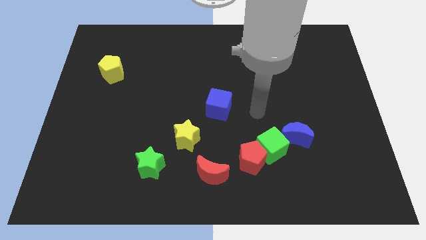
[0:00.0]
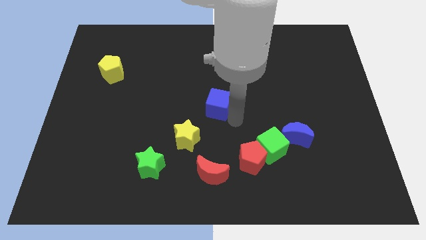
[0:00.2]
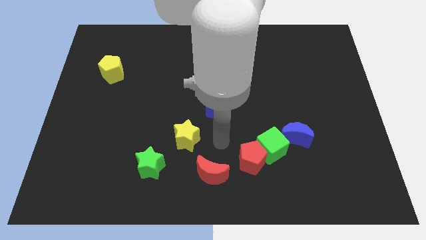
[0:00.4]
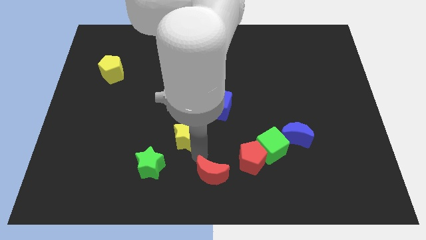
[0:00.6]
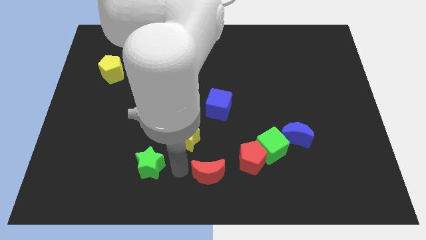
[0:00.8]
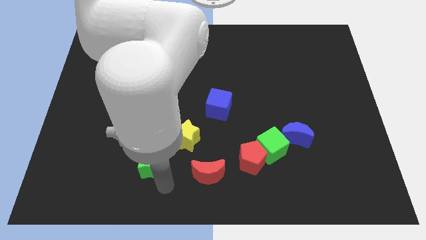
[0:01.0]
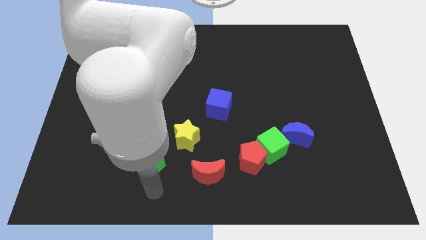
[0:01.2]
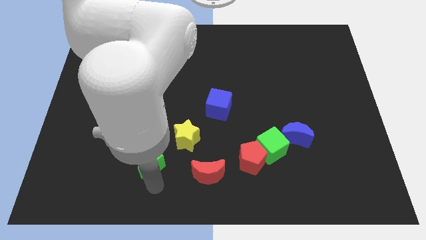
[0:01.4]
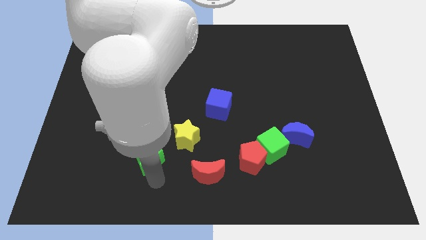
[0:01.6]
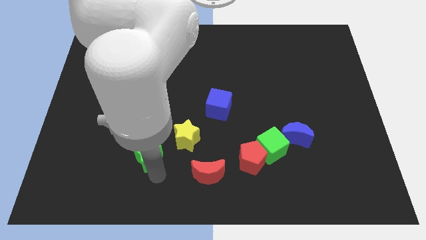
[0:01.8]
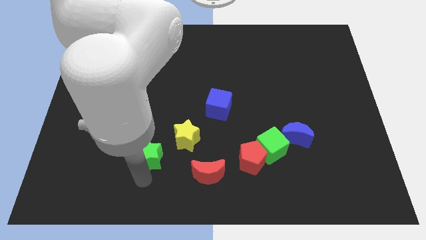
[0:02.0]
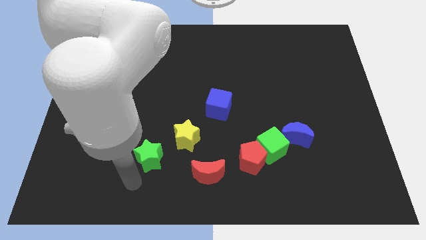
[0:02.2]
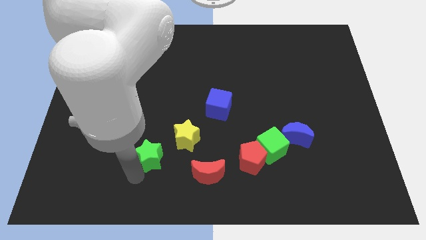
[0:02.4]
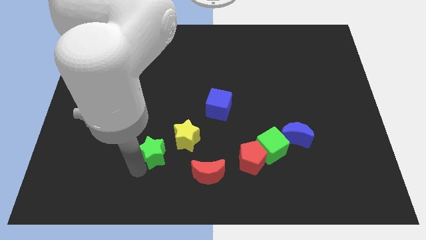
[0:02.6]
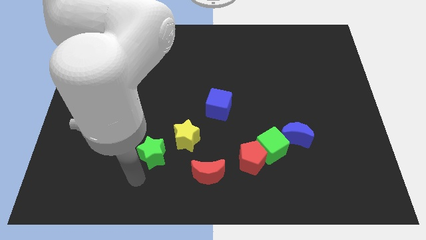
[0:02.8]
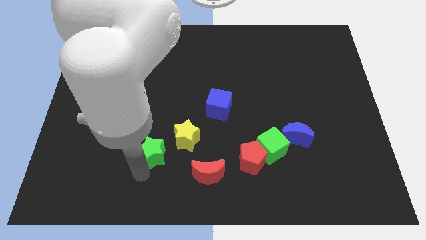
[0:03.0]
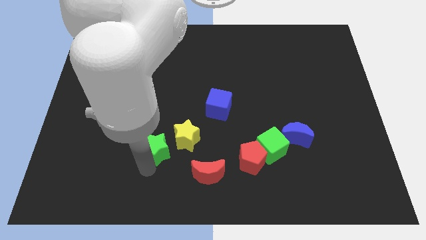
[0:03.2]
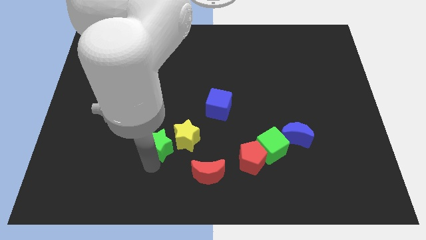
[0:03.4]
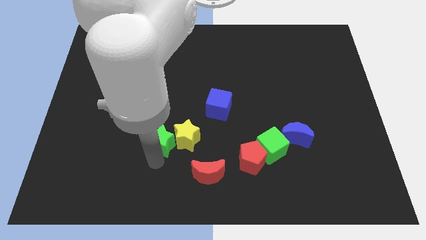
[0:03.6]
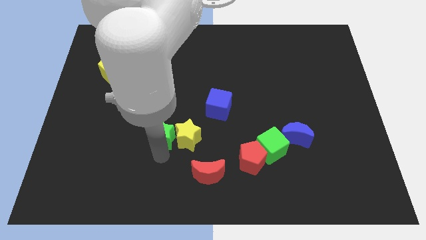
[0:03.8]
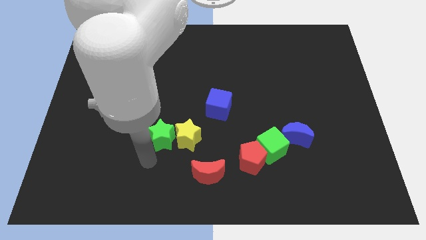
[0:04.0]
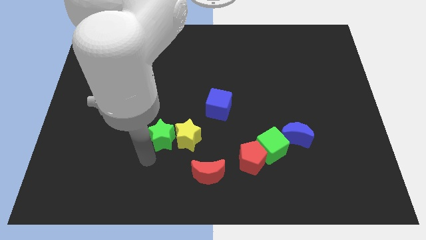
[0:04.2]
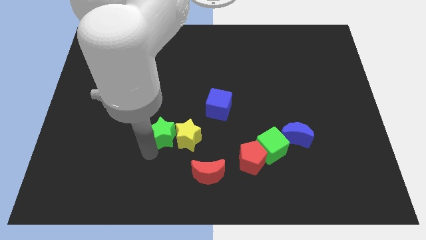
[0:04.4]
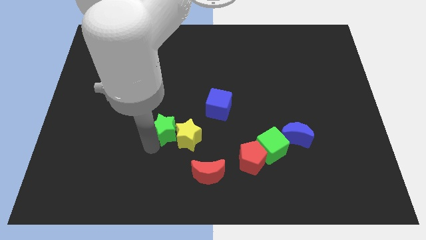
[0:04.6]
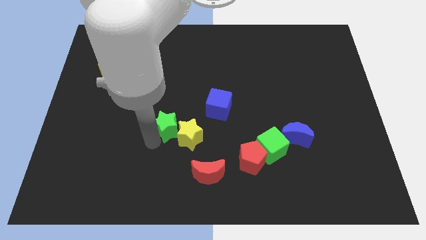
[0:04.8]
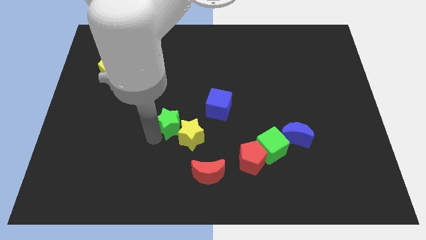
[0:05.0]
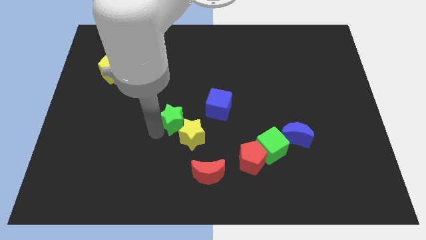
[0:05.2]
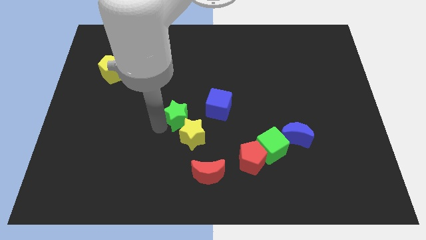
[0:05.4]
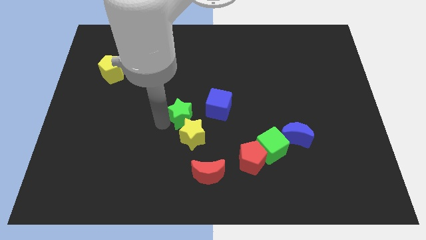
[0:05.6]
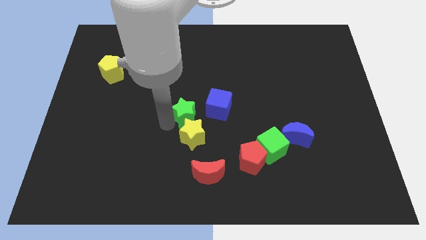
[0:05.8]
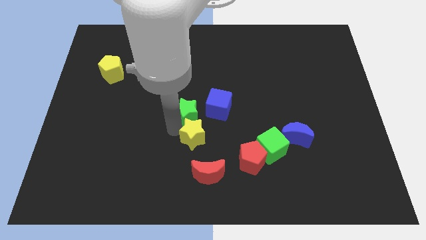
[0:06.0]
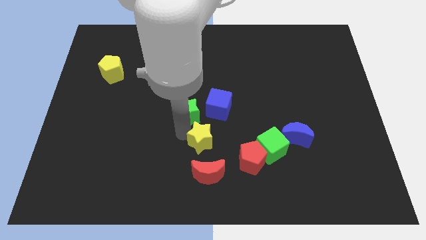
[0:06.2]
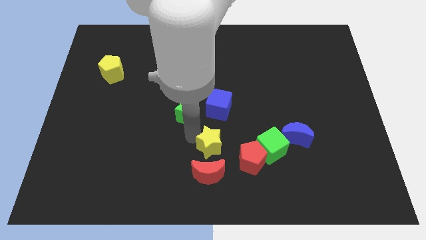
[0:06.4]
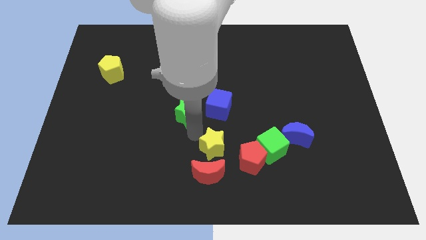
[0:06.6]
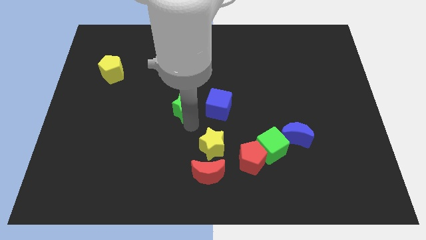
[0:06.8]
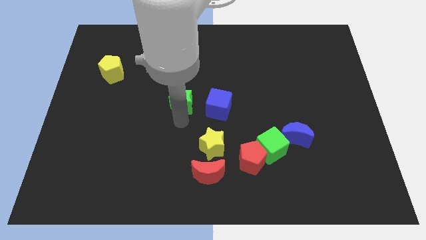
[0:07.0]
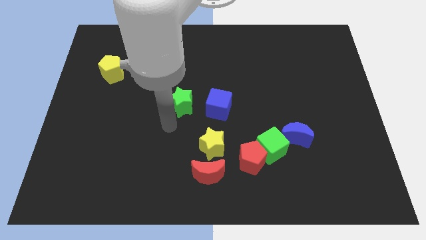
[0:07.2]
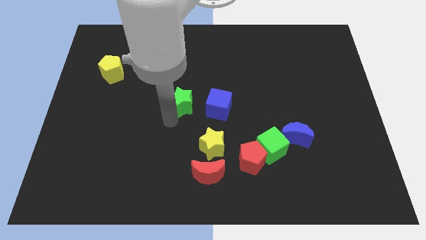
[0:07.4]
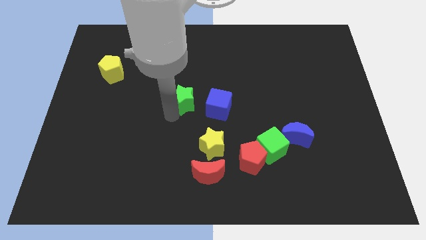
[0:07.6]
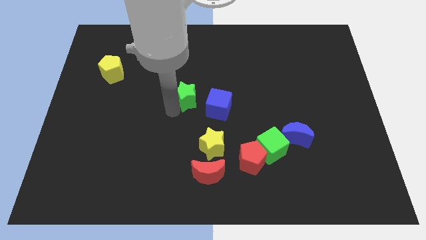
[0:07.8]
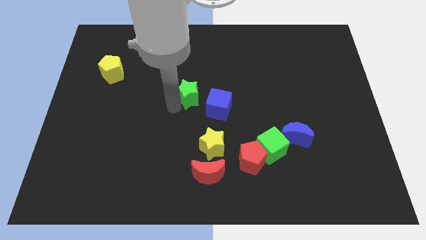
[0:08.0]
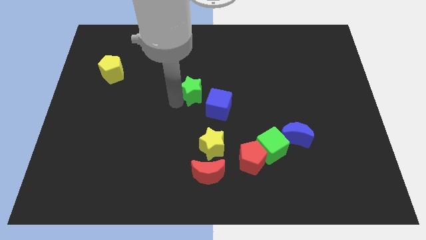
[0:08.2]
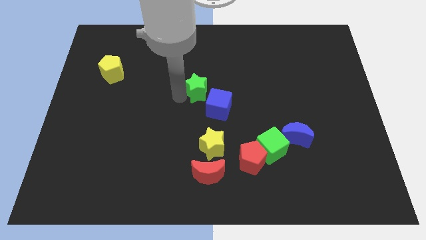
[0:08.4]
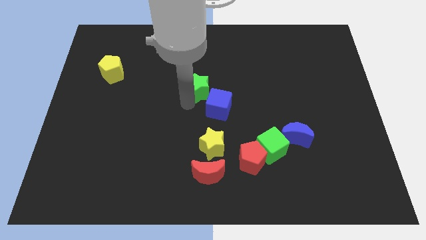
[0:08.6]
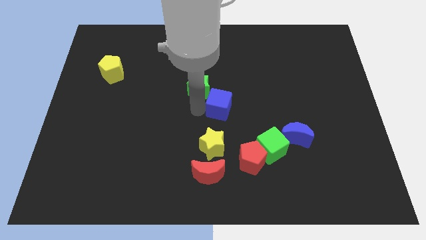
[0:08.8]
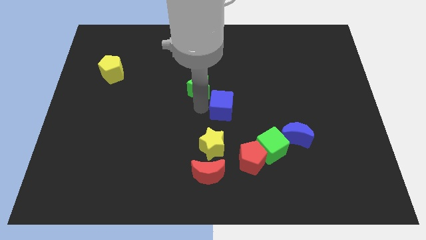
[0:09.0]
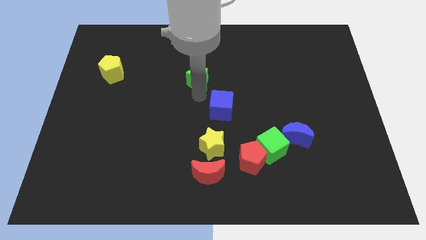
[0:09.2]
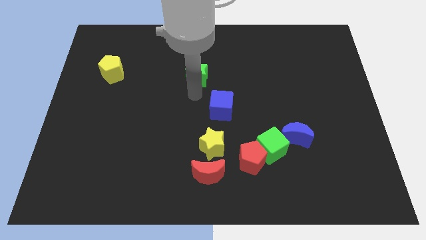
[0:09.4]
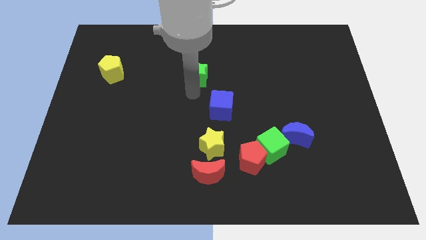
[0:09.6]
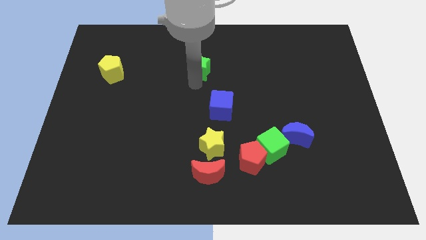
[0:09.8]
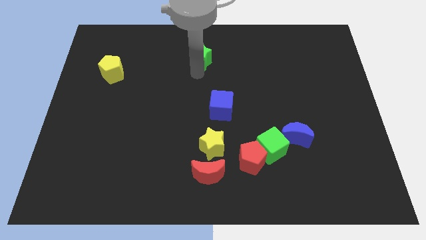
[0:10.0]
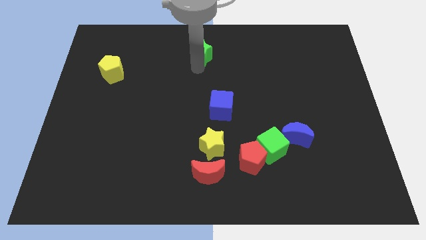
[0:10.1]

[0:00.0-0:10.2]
put the green star to the top

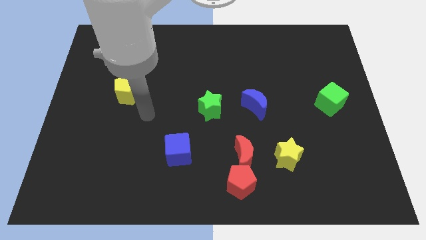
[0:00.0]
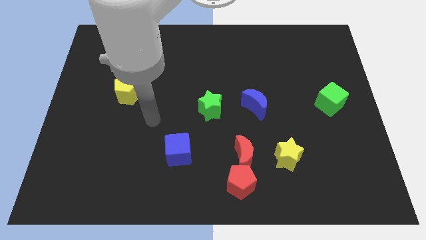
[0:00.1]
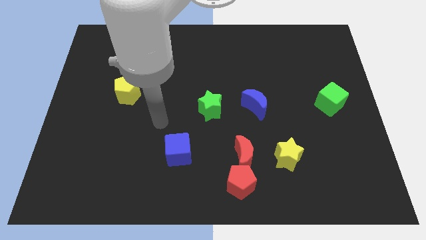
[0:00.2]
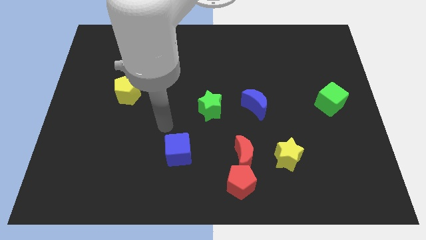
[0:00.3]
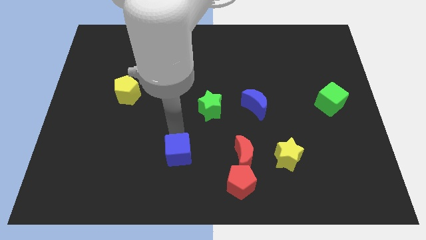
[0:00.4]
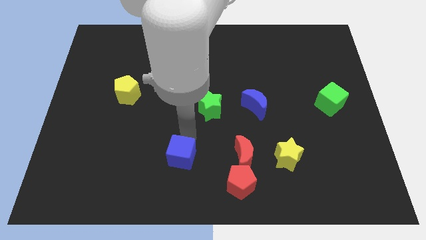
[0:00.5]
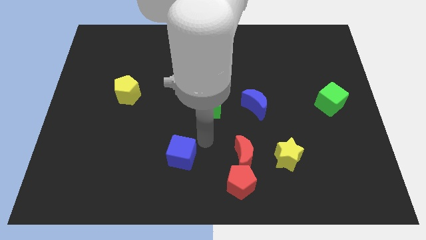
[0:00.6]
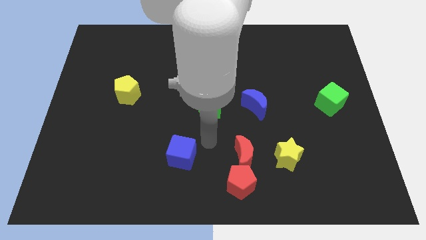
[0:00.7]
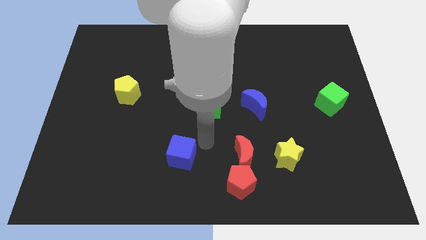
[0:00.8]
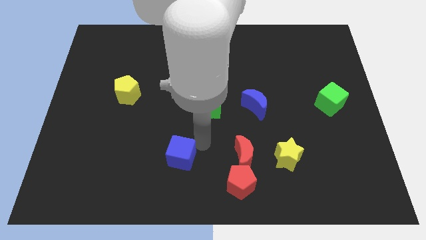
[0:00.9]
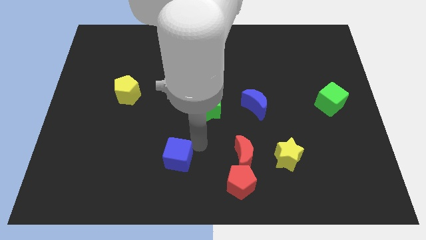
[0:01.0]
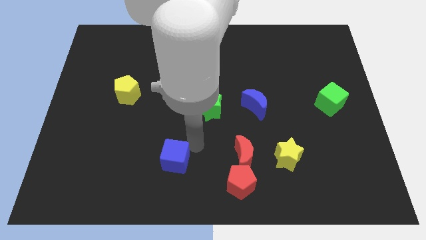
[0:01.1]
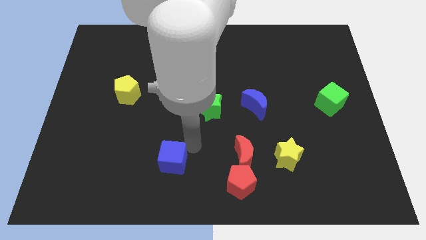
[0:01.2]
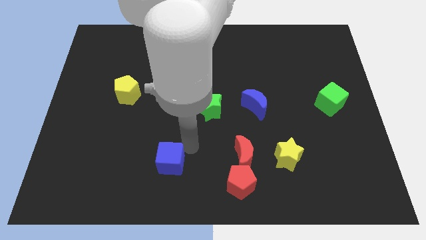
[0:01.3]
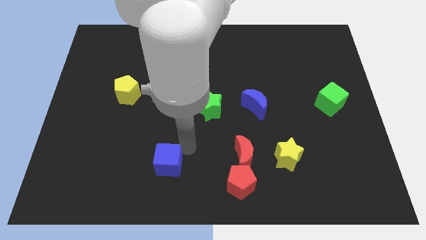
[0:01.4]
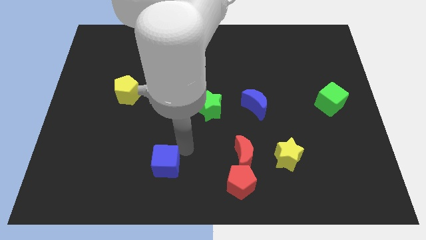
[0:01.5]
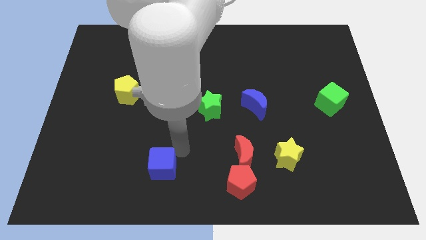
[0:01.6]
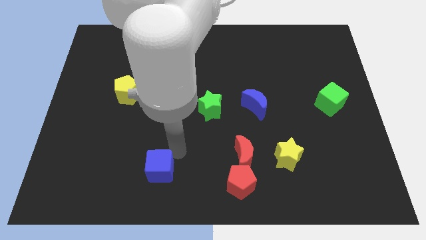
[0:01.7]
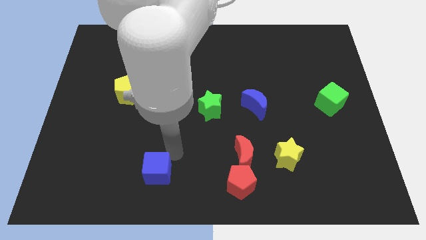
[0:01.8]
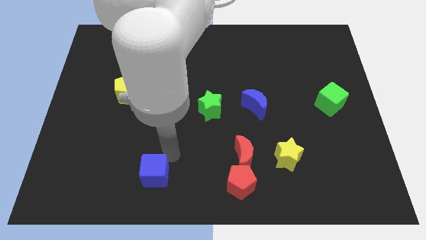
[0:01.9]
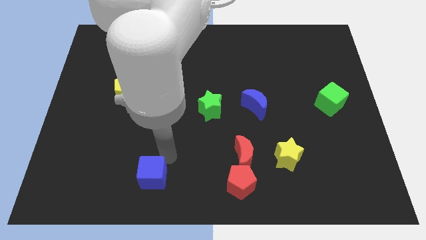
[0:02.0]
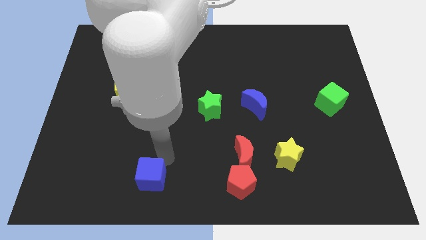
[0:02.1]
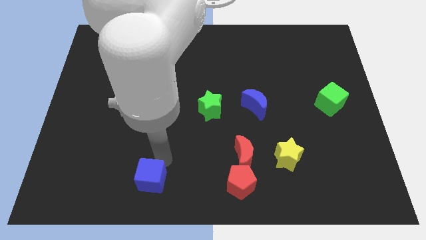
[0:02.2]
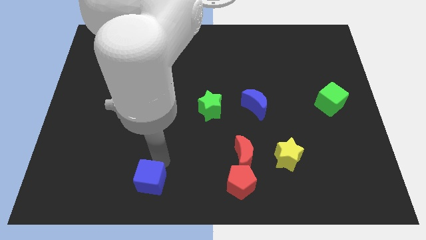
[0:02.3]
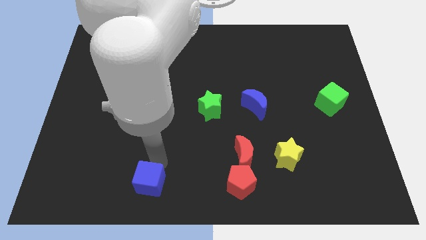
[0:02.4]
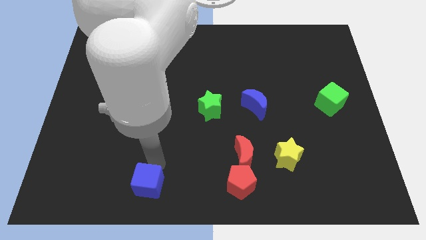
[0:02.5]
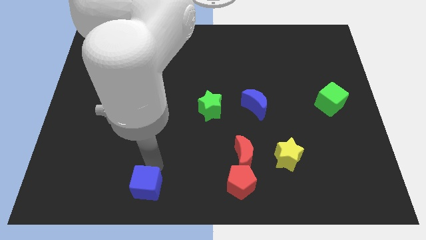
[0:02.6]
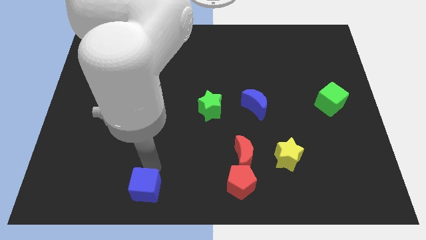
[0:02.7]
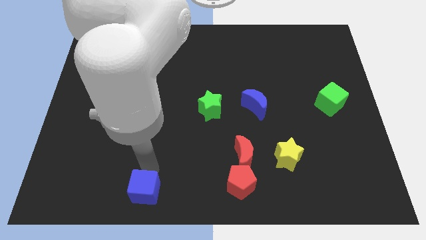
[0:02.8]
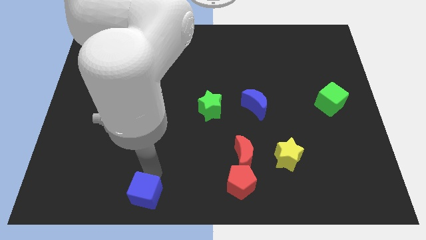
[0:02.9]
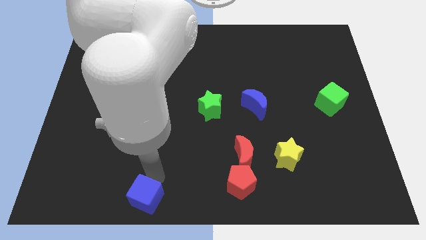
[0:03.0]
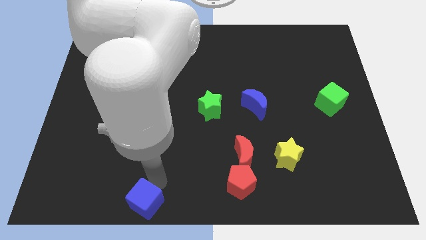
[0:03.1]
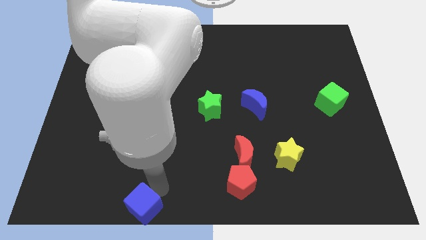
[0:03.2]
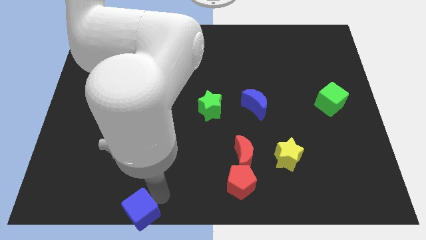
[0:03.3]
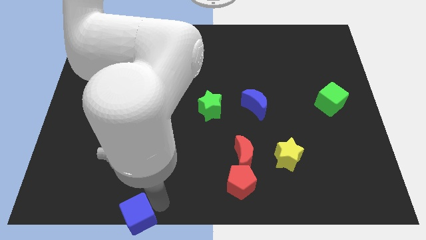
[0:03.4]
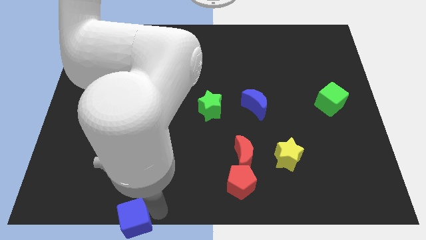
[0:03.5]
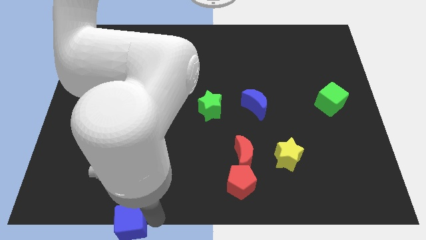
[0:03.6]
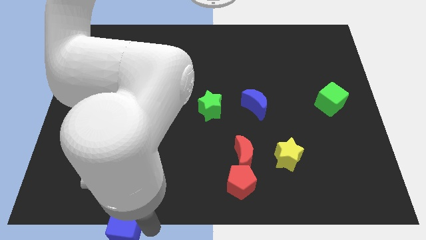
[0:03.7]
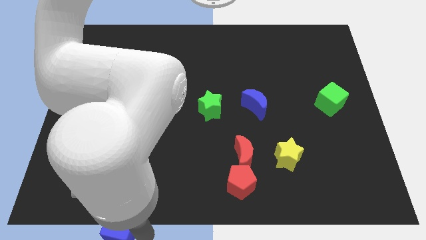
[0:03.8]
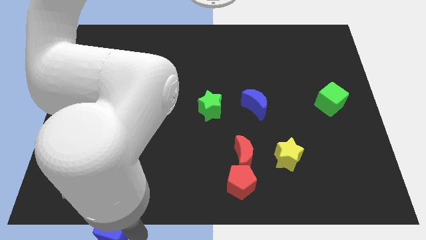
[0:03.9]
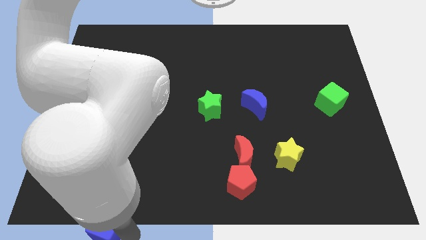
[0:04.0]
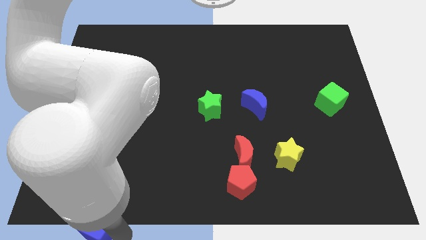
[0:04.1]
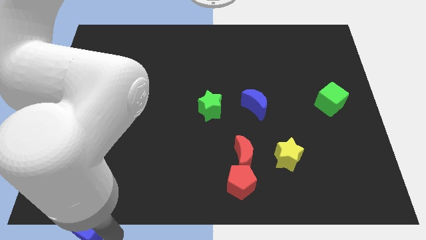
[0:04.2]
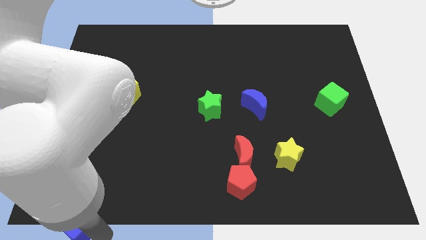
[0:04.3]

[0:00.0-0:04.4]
slide the blue cube to the bottom left
